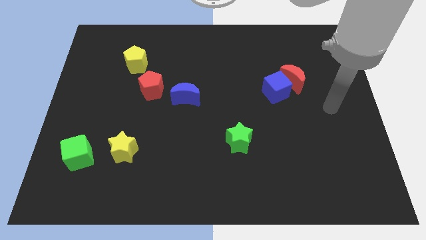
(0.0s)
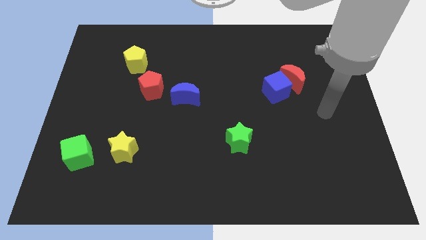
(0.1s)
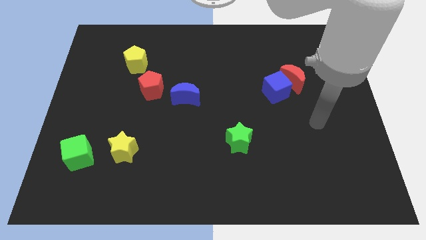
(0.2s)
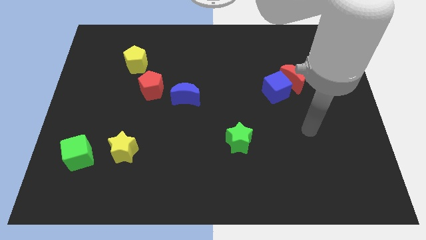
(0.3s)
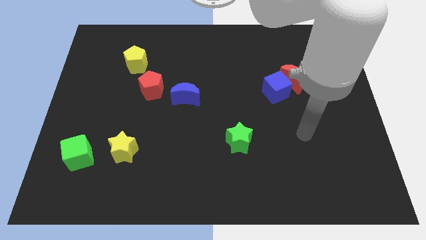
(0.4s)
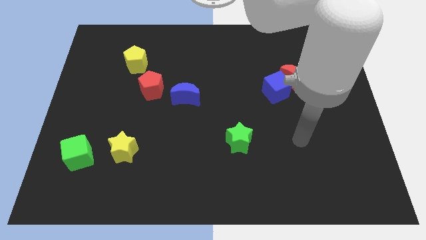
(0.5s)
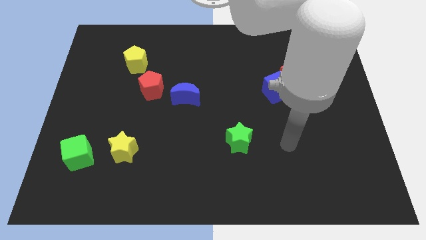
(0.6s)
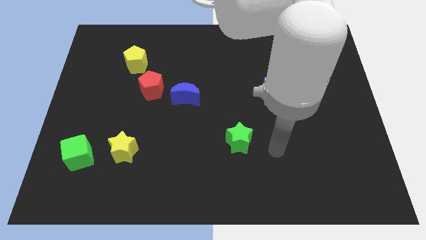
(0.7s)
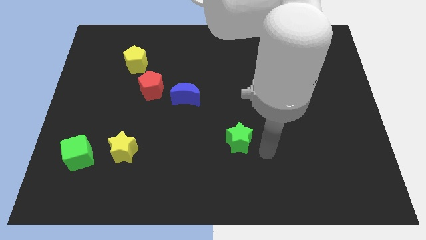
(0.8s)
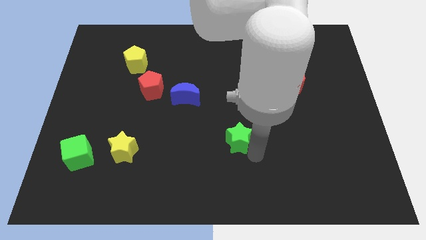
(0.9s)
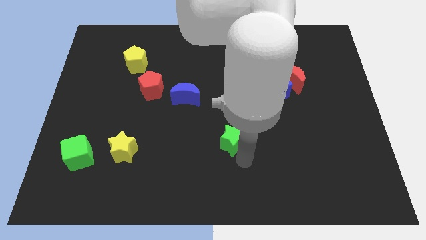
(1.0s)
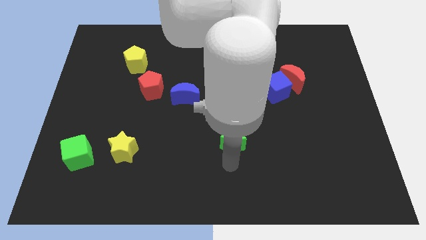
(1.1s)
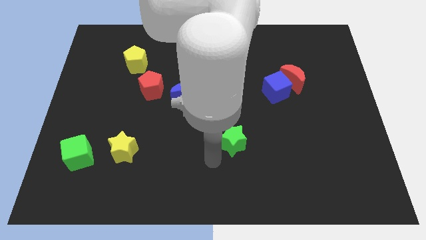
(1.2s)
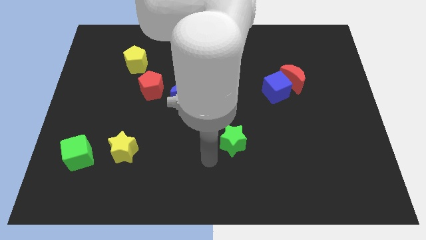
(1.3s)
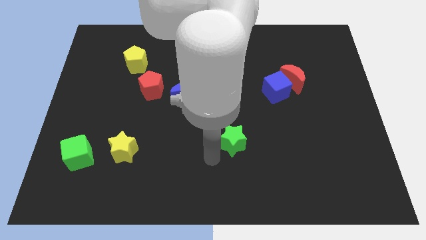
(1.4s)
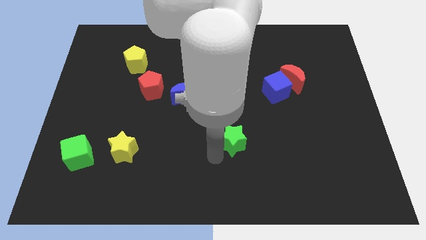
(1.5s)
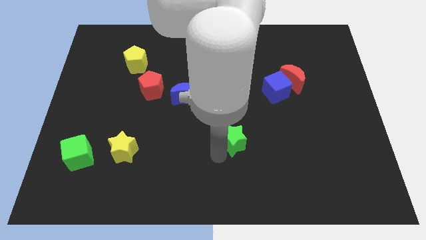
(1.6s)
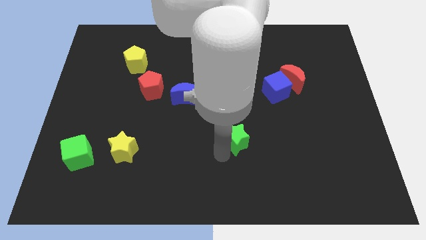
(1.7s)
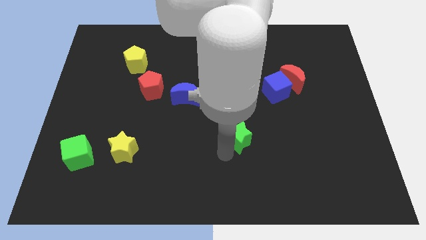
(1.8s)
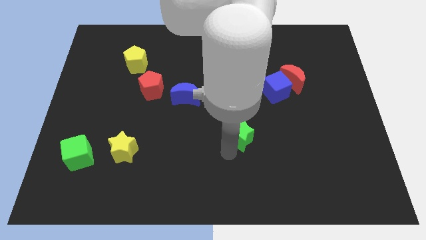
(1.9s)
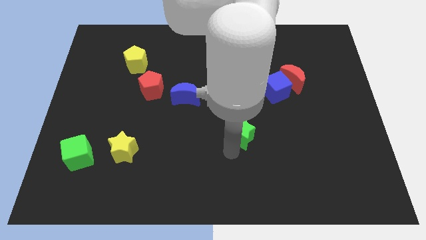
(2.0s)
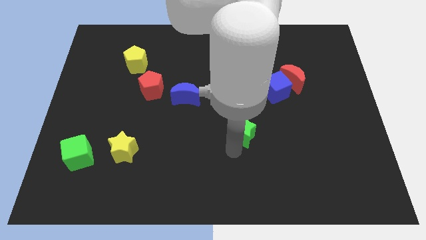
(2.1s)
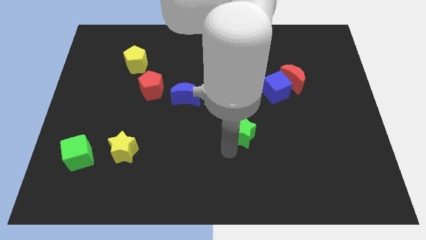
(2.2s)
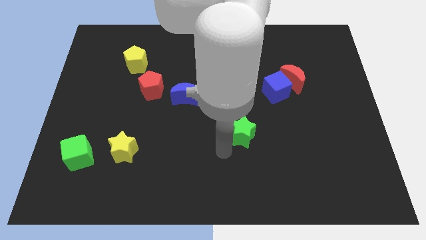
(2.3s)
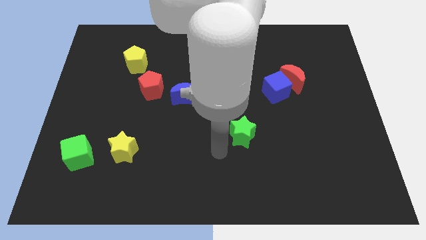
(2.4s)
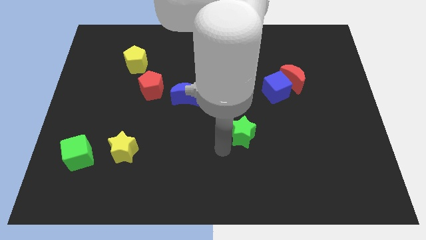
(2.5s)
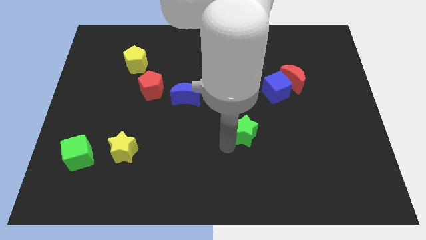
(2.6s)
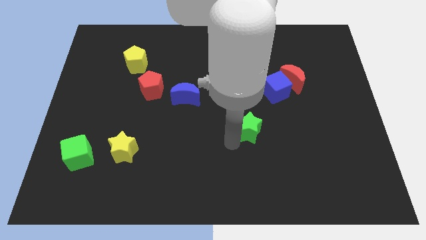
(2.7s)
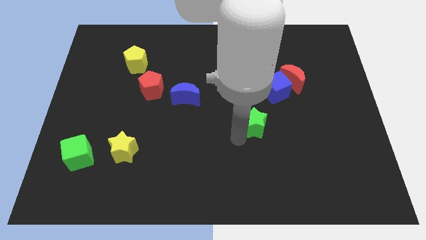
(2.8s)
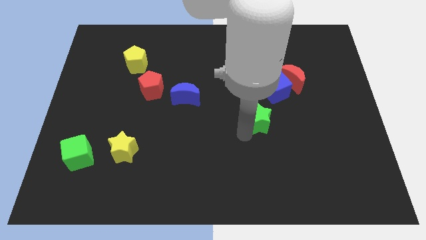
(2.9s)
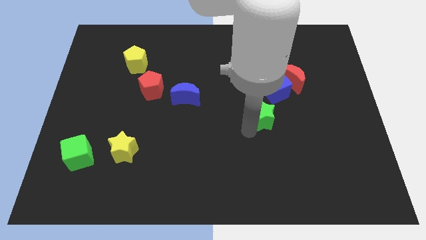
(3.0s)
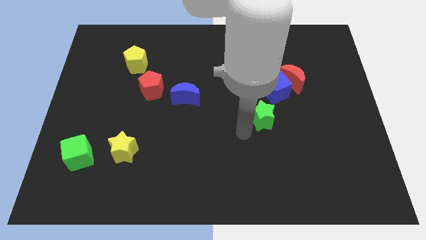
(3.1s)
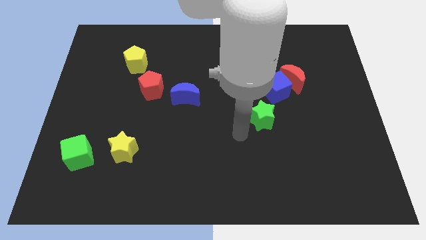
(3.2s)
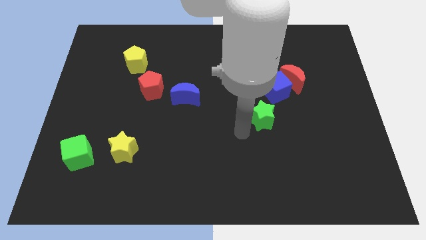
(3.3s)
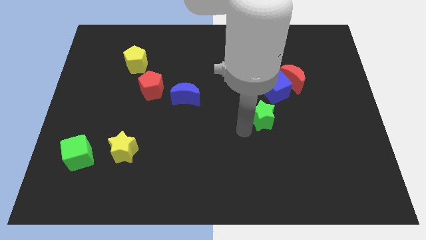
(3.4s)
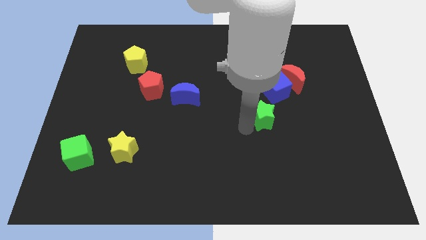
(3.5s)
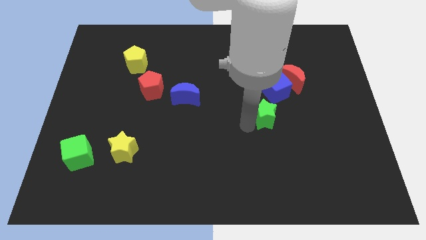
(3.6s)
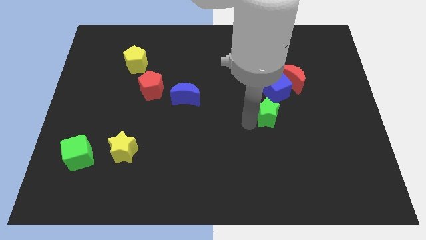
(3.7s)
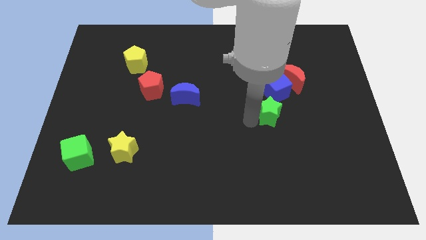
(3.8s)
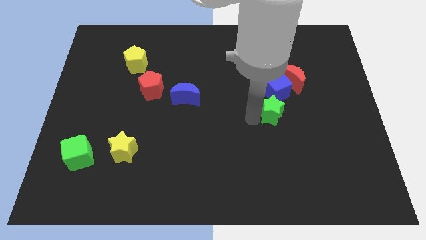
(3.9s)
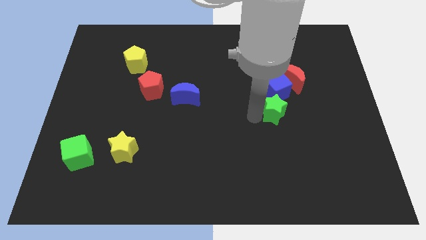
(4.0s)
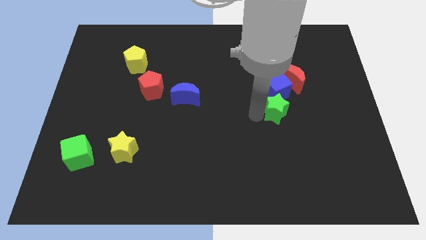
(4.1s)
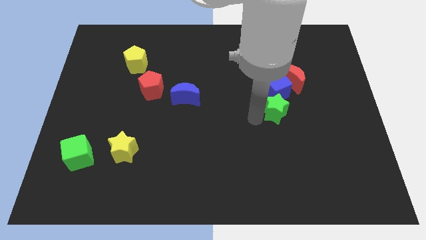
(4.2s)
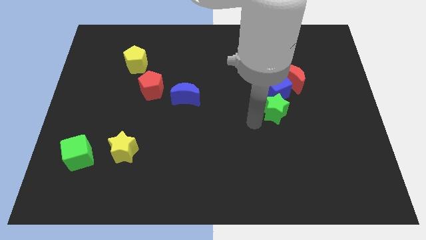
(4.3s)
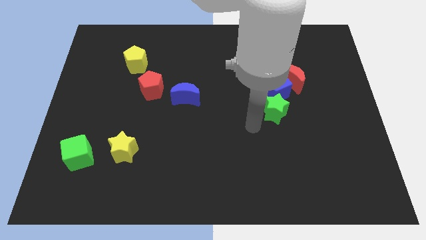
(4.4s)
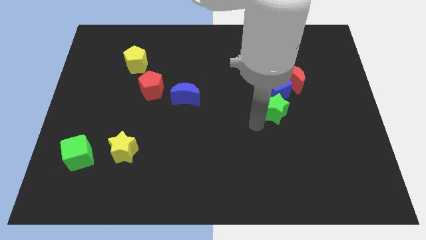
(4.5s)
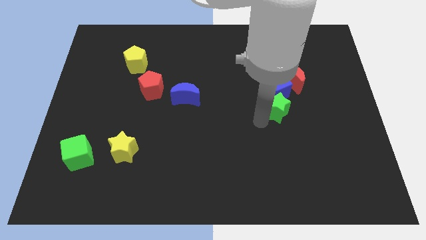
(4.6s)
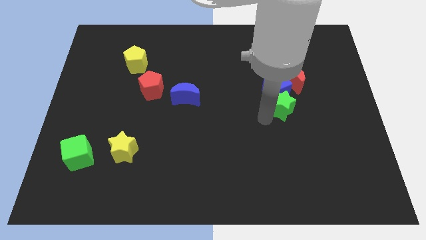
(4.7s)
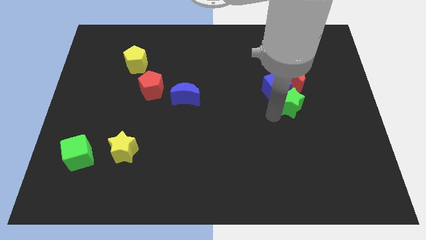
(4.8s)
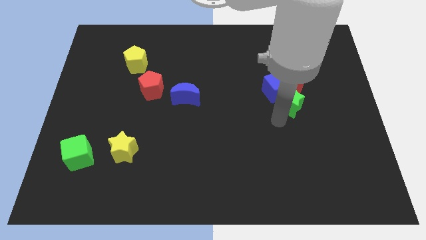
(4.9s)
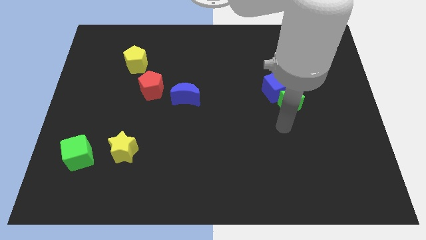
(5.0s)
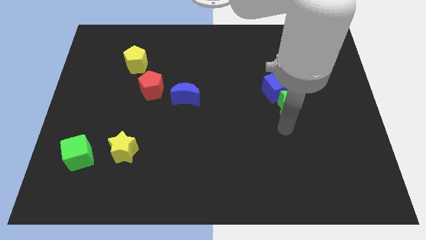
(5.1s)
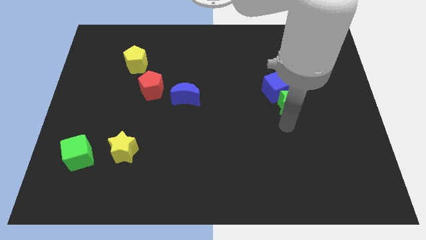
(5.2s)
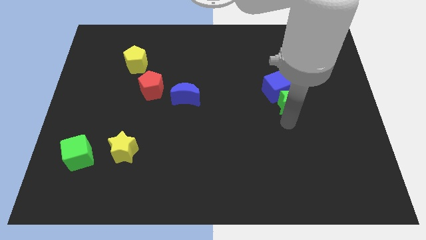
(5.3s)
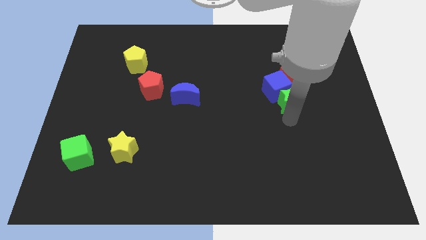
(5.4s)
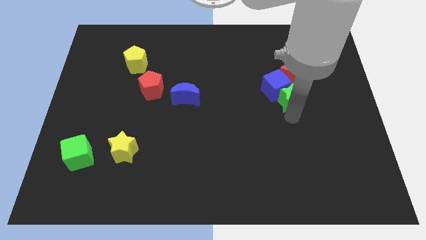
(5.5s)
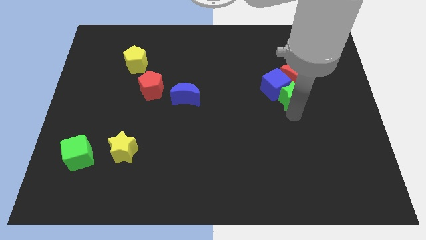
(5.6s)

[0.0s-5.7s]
move the green star towards the red moon

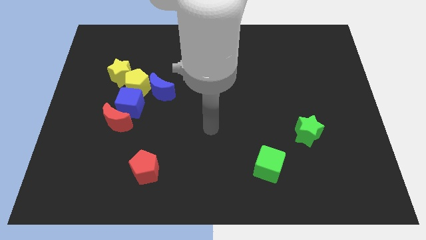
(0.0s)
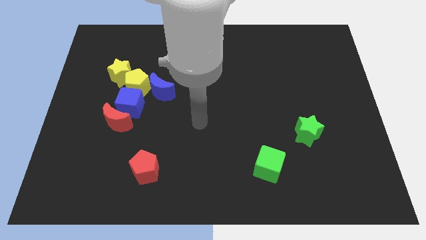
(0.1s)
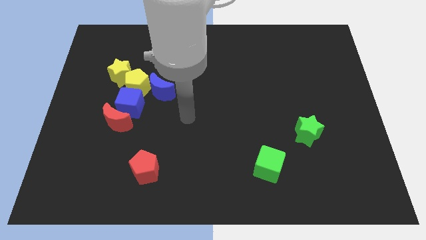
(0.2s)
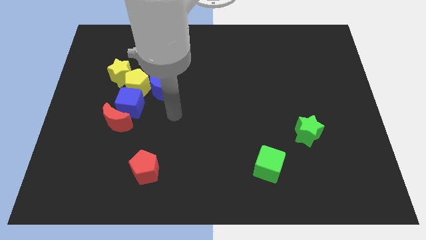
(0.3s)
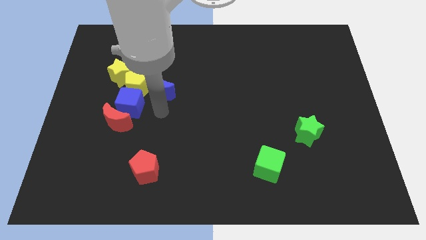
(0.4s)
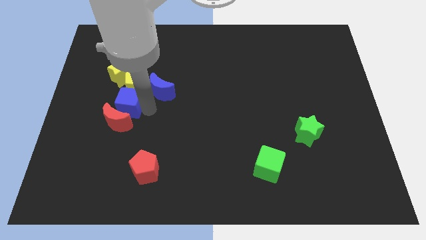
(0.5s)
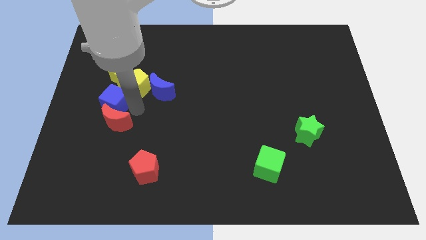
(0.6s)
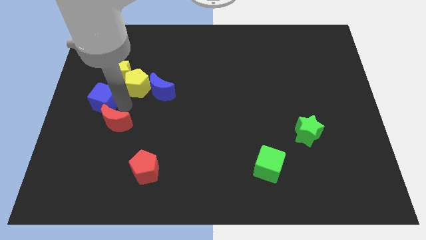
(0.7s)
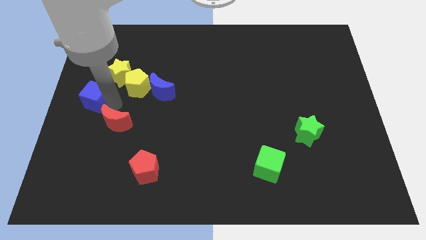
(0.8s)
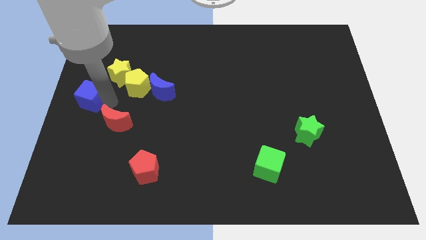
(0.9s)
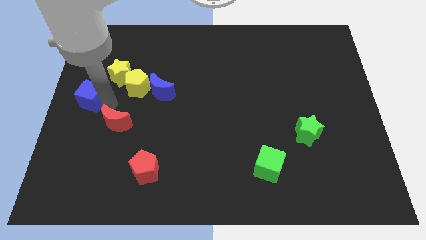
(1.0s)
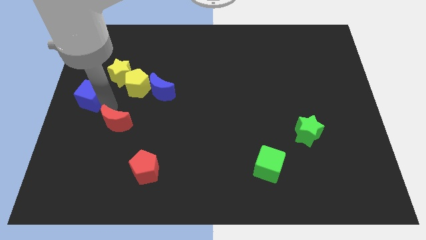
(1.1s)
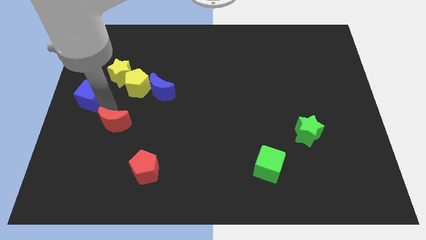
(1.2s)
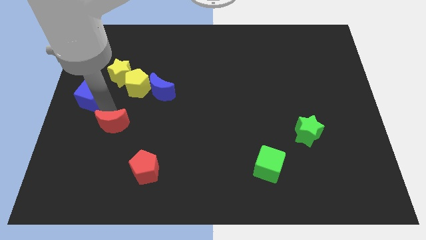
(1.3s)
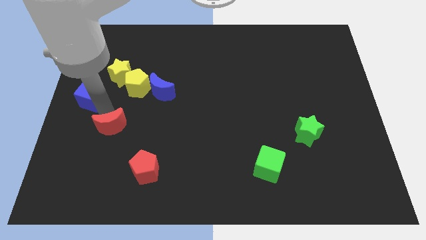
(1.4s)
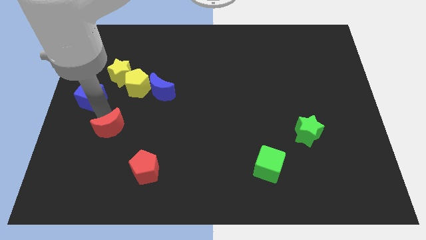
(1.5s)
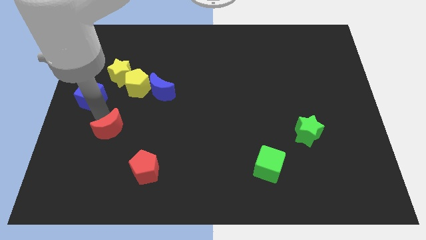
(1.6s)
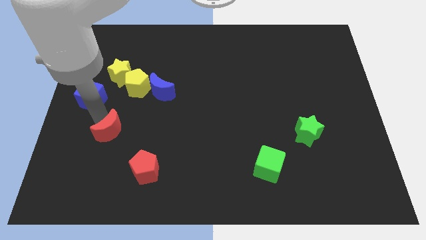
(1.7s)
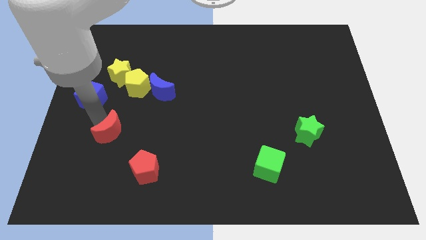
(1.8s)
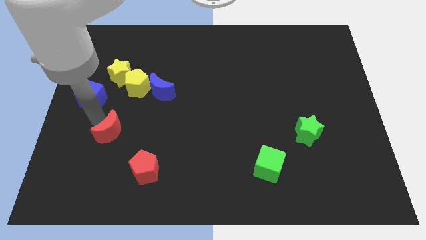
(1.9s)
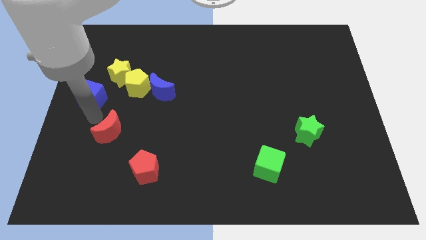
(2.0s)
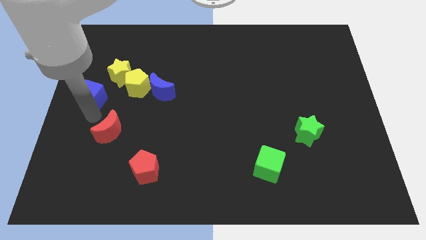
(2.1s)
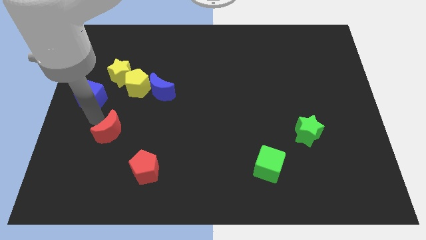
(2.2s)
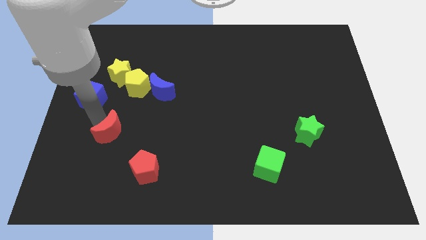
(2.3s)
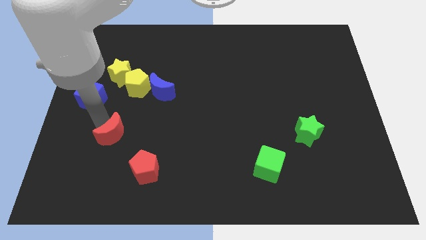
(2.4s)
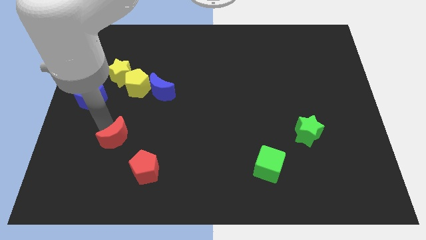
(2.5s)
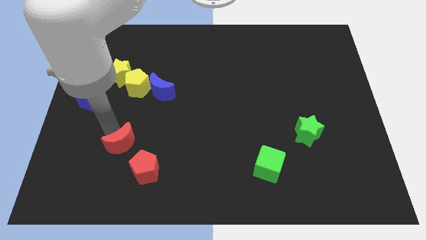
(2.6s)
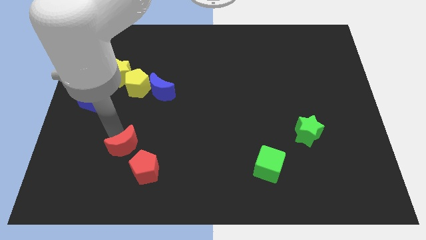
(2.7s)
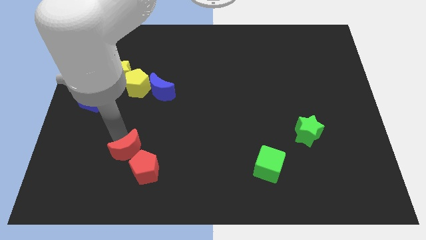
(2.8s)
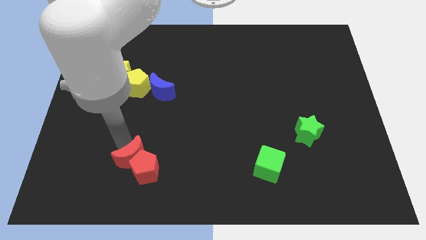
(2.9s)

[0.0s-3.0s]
move the red moon to the red pentagon
